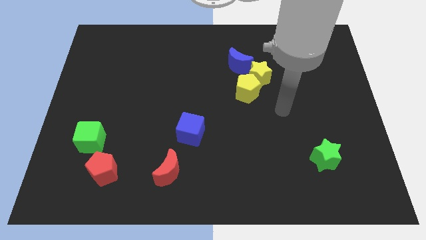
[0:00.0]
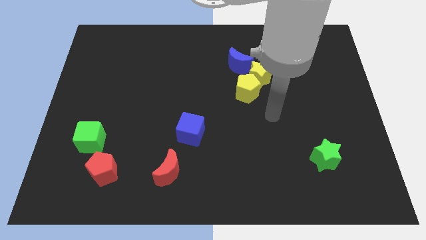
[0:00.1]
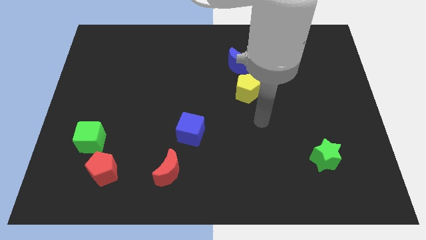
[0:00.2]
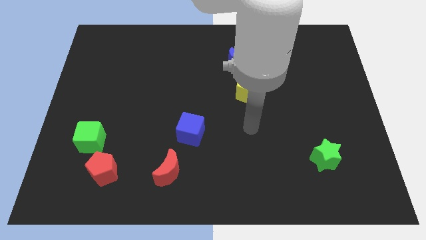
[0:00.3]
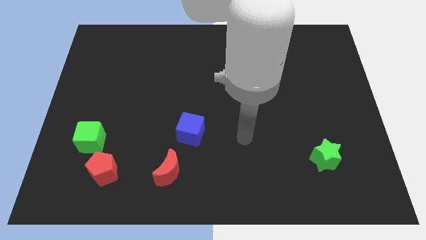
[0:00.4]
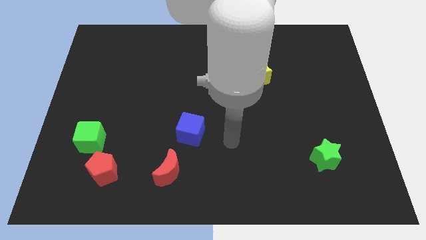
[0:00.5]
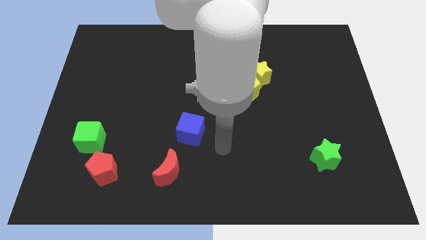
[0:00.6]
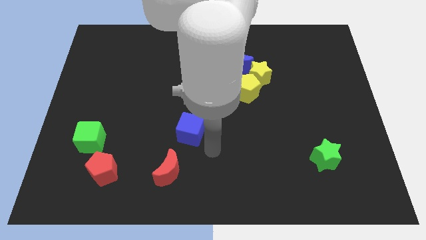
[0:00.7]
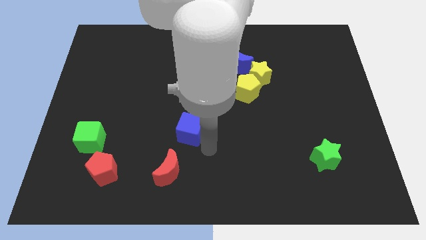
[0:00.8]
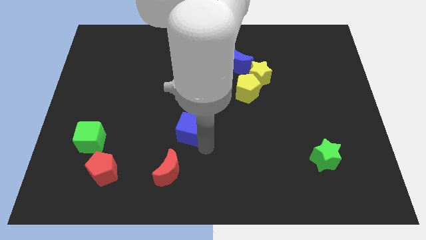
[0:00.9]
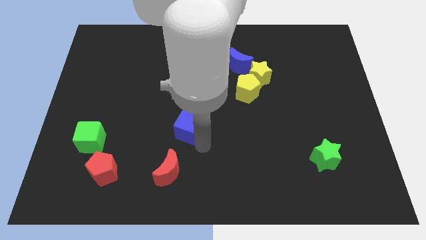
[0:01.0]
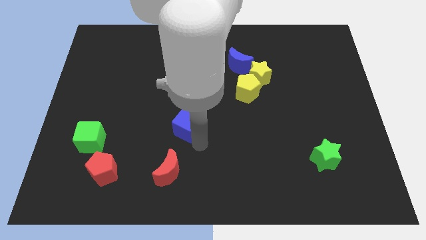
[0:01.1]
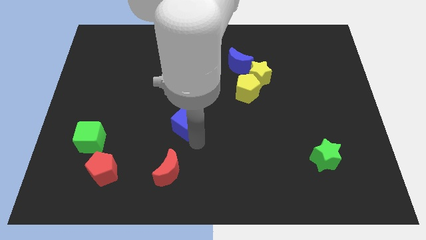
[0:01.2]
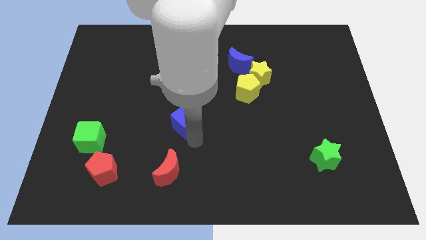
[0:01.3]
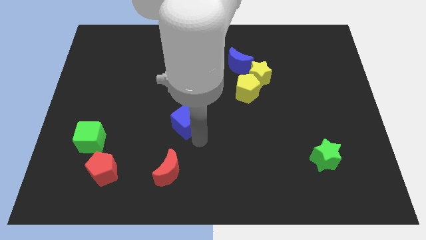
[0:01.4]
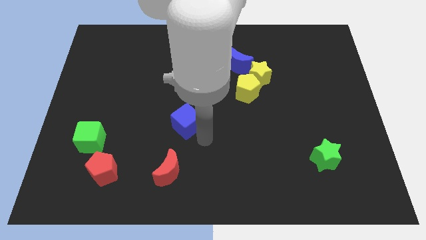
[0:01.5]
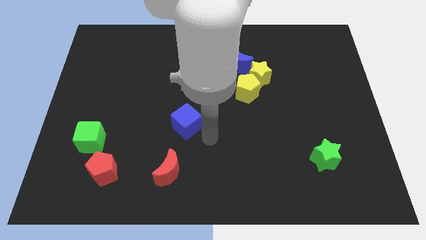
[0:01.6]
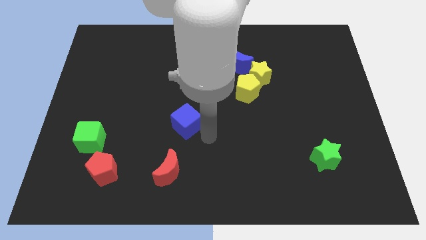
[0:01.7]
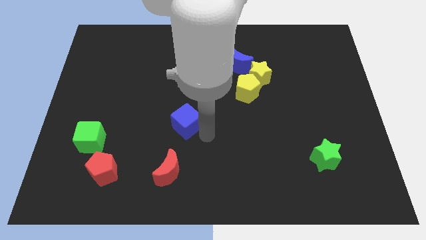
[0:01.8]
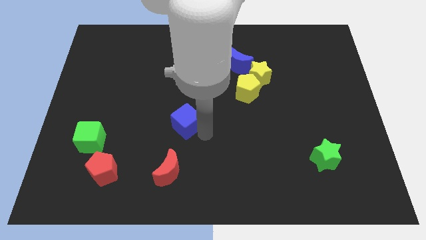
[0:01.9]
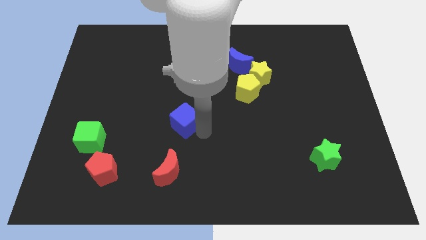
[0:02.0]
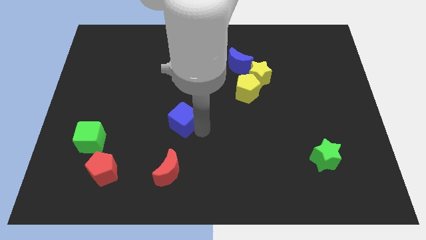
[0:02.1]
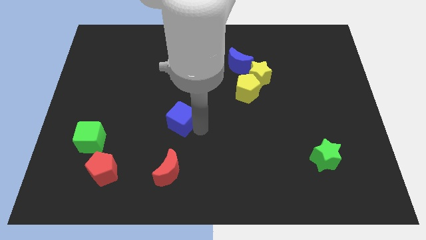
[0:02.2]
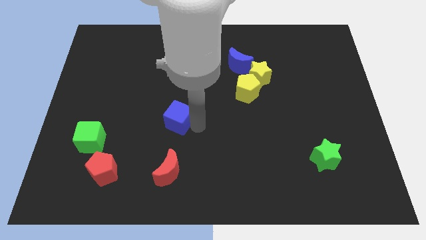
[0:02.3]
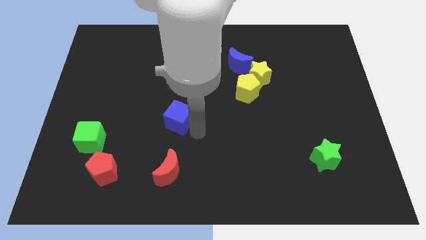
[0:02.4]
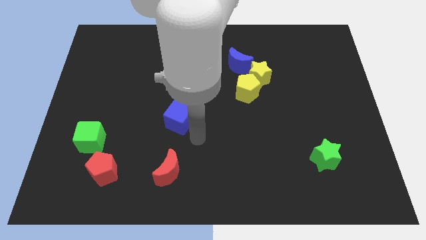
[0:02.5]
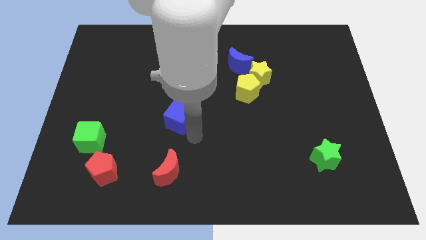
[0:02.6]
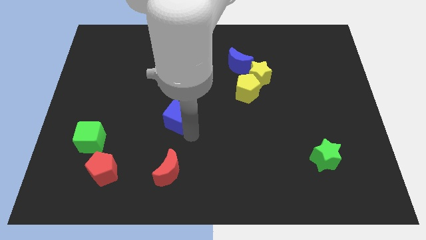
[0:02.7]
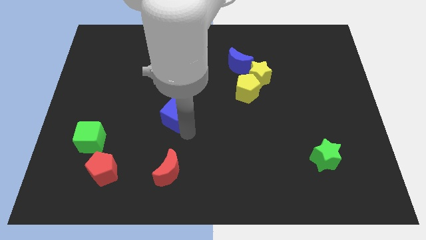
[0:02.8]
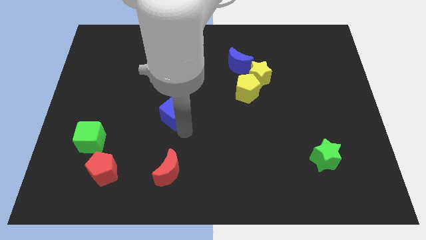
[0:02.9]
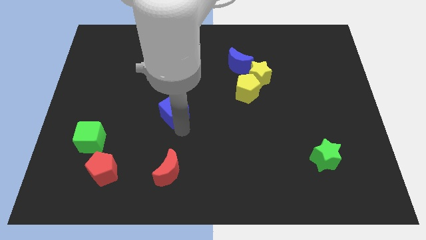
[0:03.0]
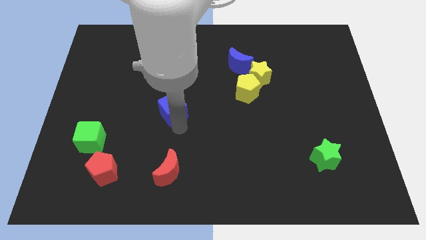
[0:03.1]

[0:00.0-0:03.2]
move the blue cube a little upwards and to the left diagonally

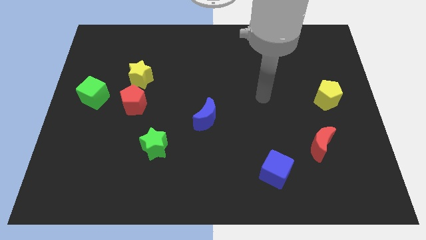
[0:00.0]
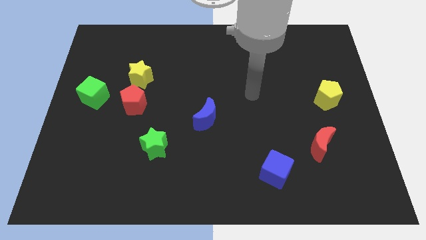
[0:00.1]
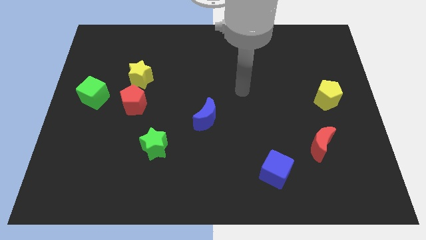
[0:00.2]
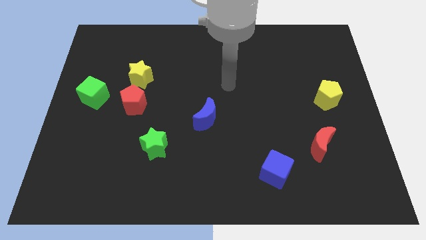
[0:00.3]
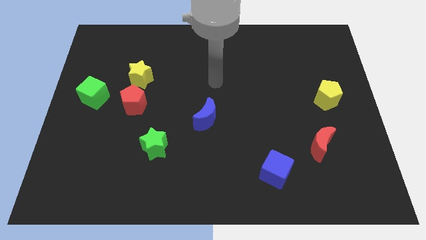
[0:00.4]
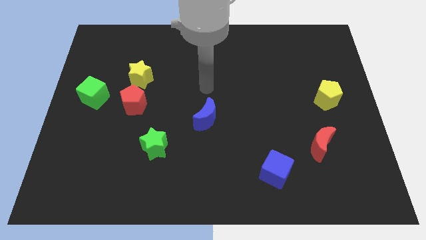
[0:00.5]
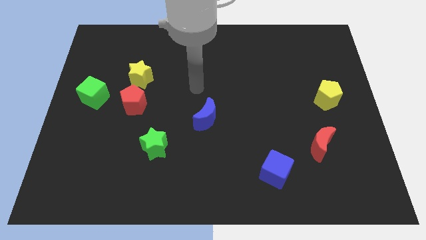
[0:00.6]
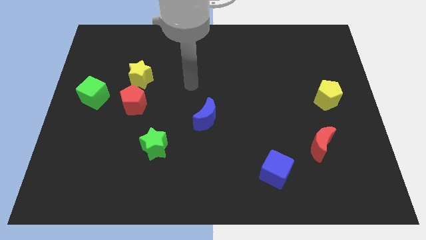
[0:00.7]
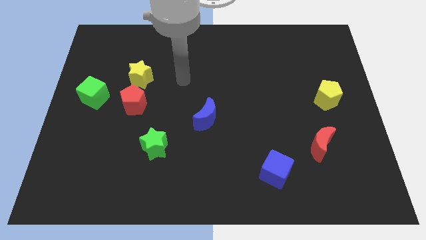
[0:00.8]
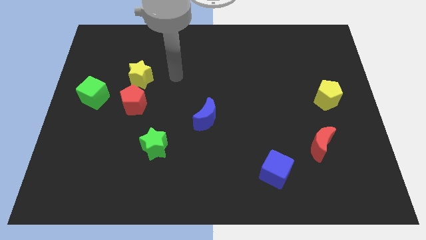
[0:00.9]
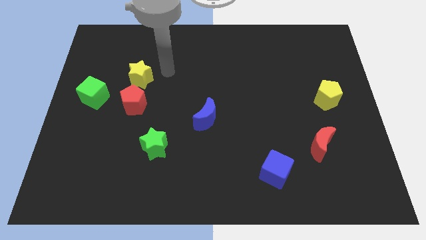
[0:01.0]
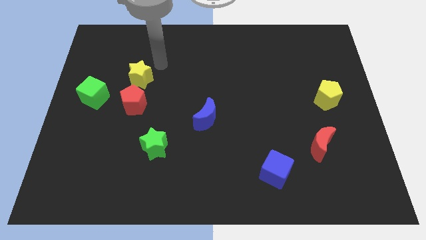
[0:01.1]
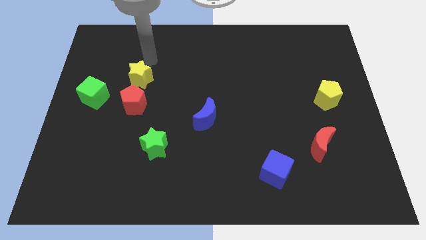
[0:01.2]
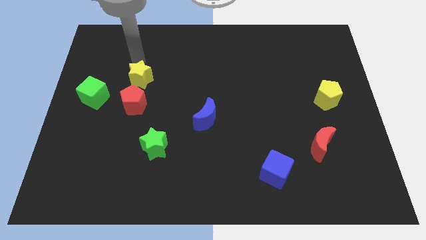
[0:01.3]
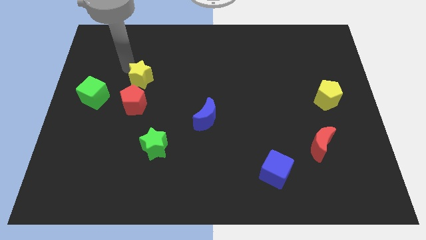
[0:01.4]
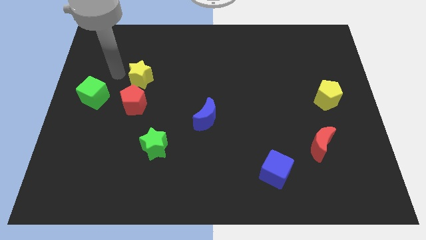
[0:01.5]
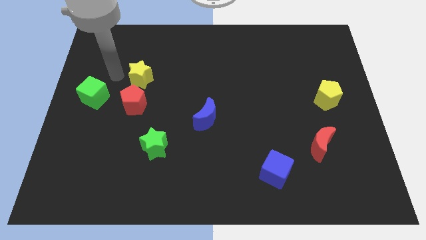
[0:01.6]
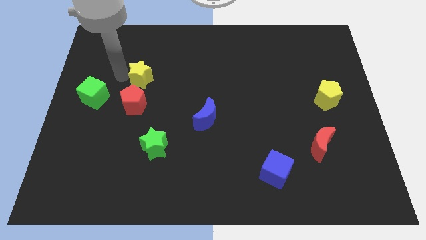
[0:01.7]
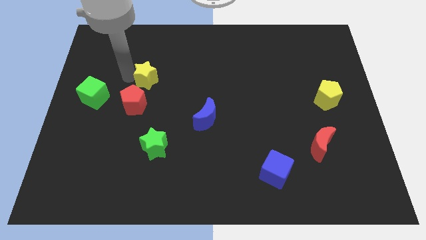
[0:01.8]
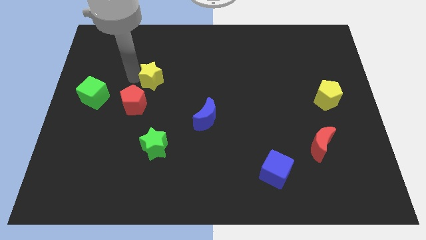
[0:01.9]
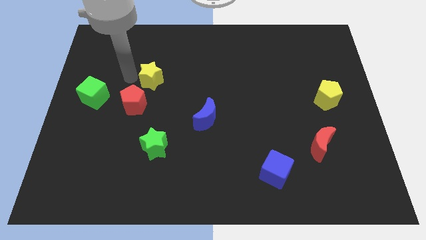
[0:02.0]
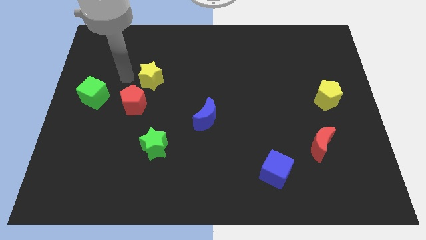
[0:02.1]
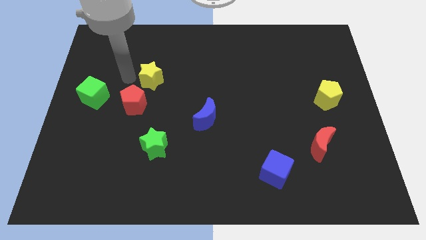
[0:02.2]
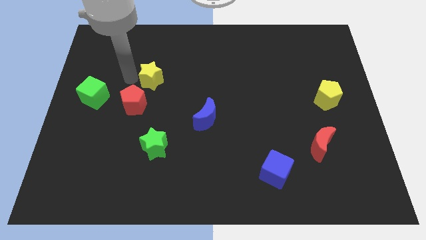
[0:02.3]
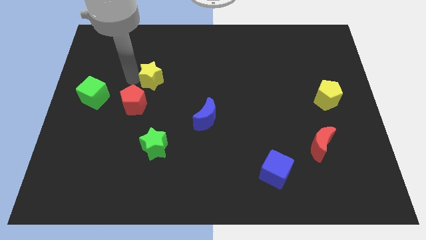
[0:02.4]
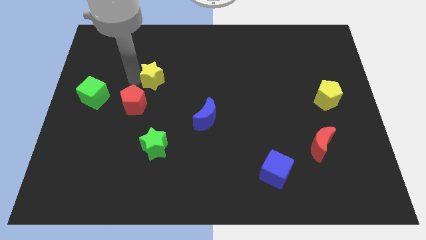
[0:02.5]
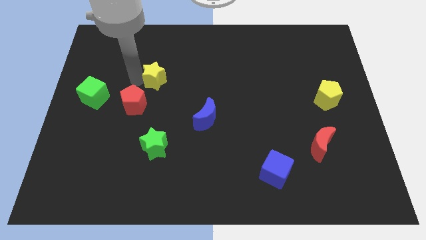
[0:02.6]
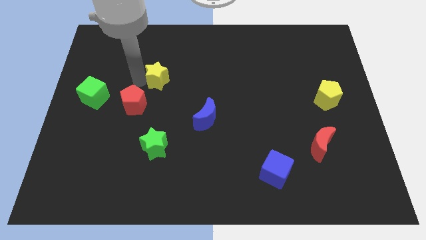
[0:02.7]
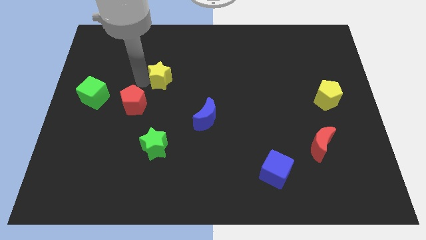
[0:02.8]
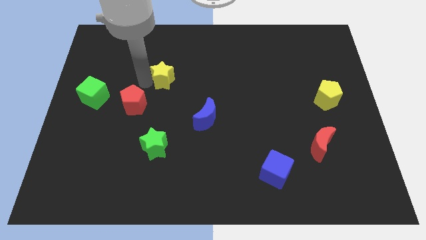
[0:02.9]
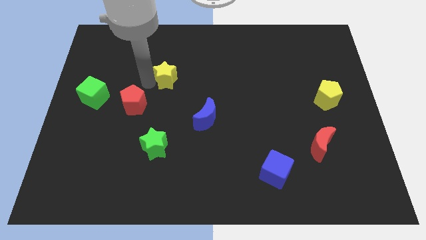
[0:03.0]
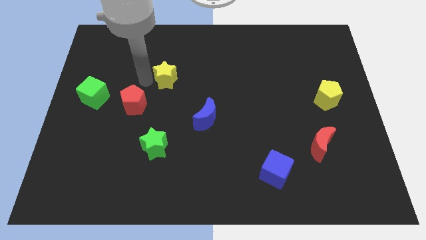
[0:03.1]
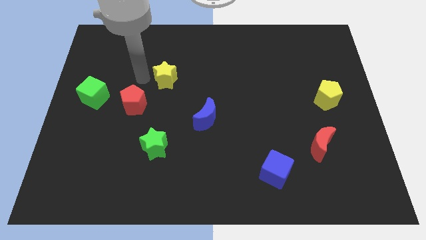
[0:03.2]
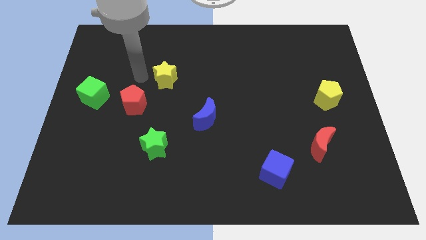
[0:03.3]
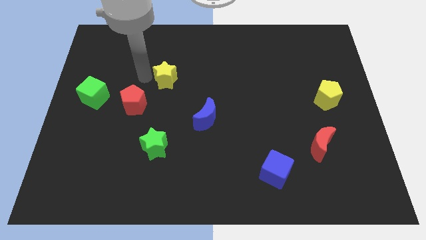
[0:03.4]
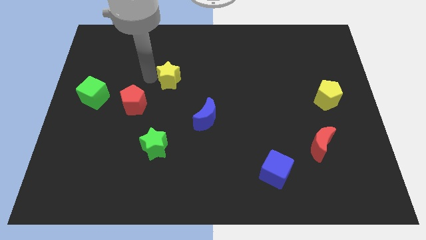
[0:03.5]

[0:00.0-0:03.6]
slightly slide the yellow star to the right

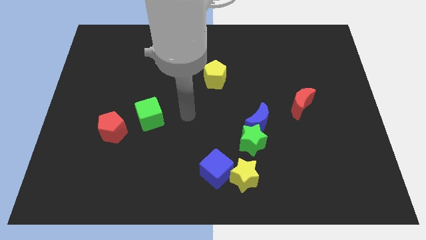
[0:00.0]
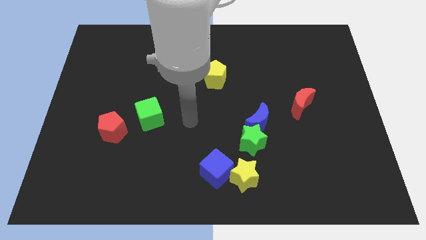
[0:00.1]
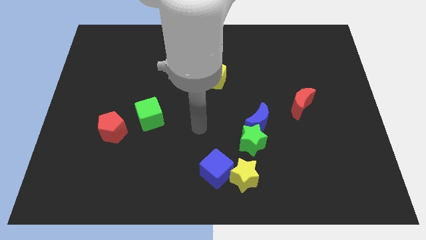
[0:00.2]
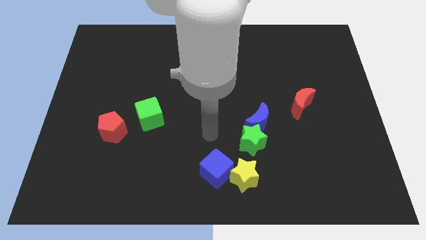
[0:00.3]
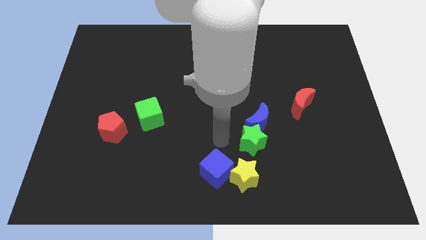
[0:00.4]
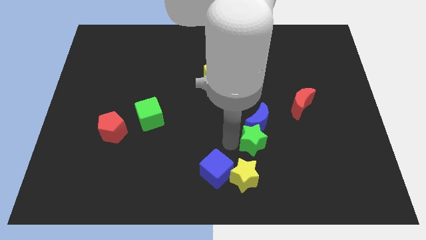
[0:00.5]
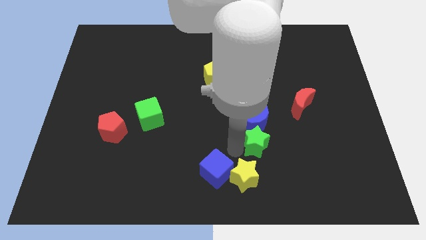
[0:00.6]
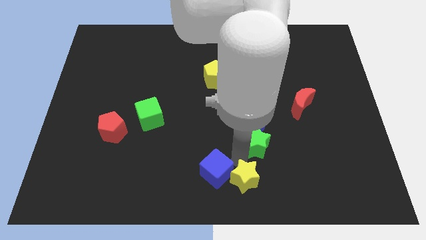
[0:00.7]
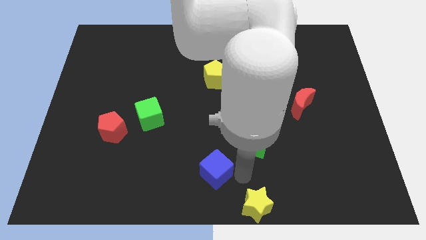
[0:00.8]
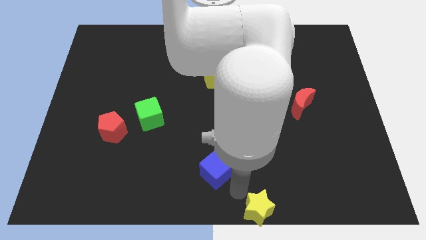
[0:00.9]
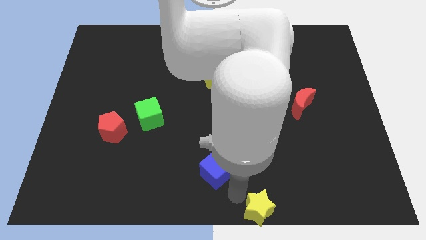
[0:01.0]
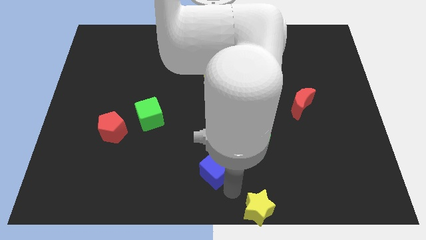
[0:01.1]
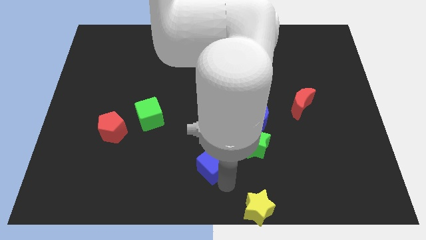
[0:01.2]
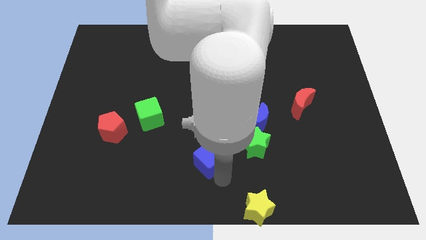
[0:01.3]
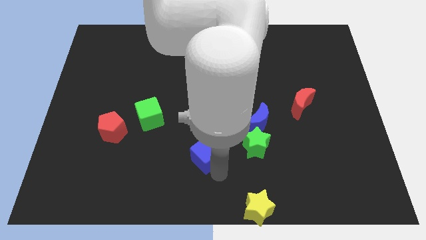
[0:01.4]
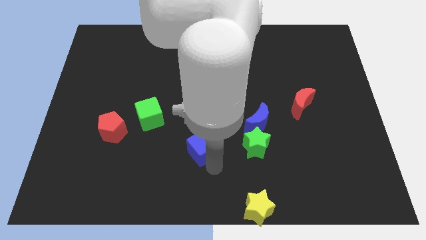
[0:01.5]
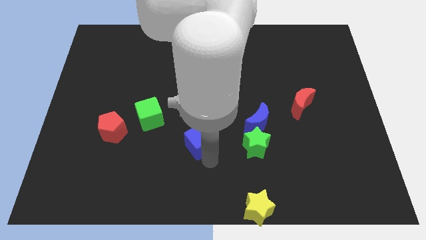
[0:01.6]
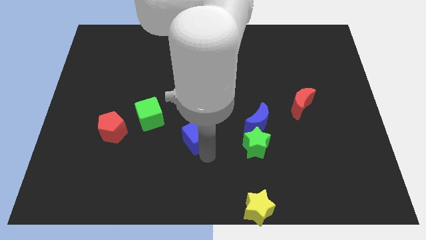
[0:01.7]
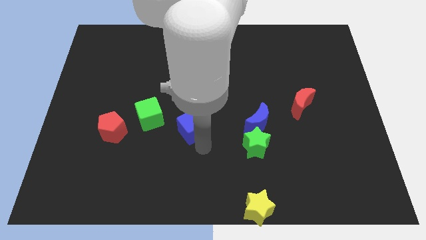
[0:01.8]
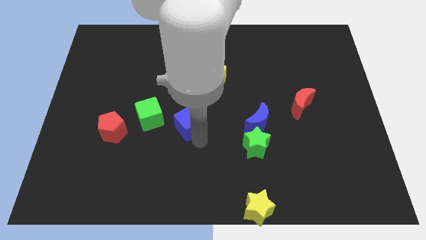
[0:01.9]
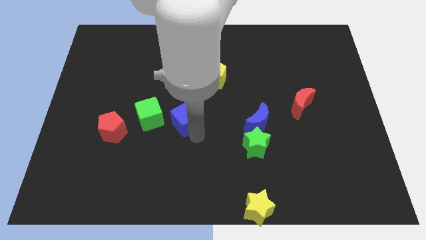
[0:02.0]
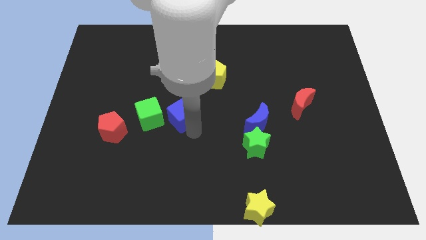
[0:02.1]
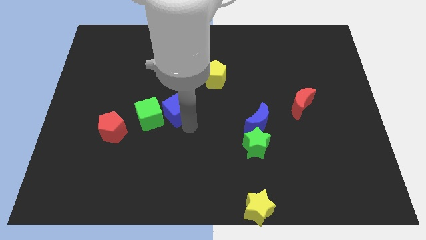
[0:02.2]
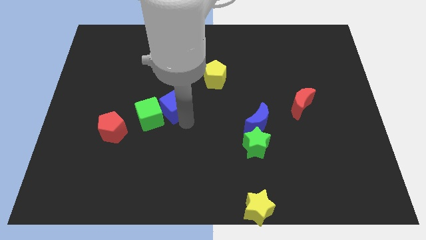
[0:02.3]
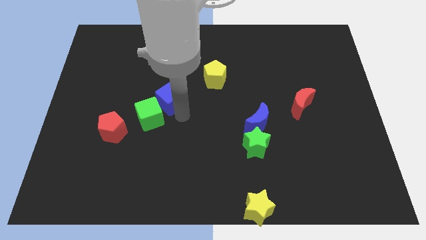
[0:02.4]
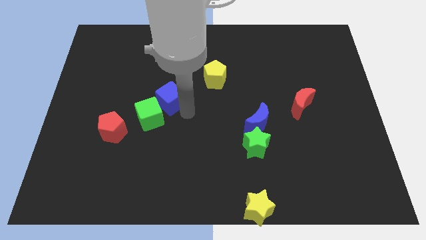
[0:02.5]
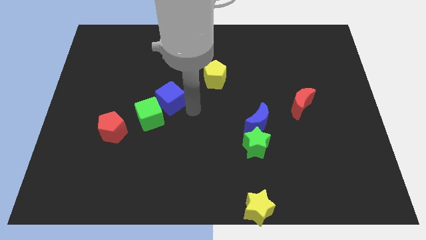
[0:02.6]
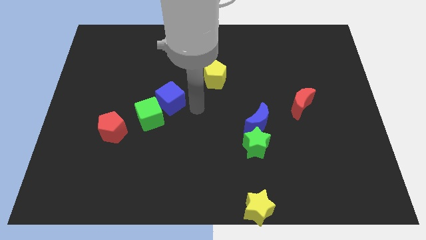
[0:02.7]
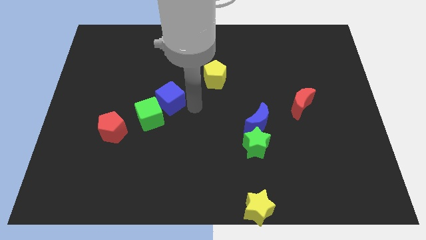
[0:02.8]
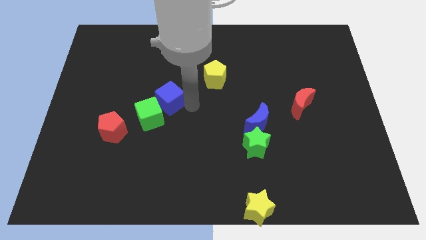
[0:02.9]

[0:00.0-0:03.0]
move the blue cube up and left diagonally
